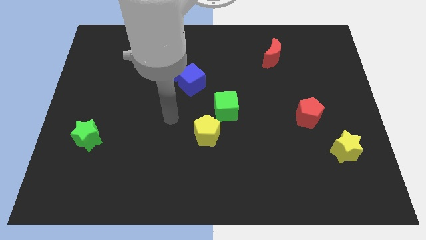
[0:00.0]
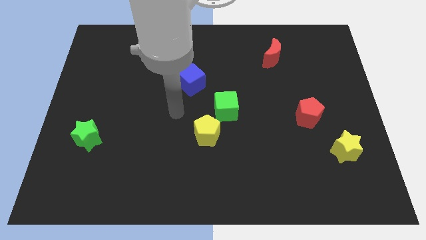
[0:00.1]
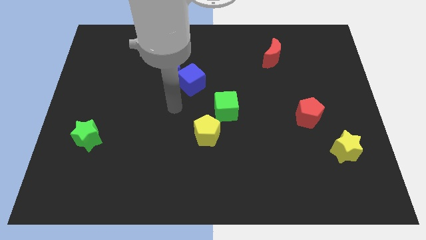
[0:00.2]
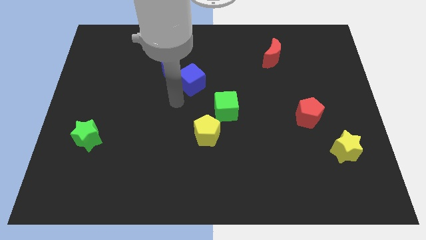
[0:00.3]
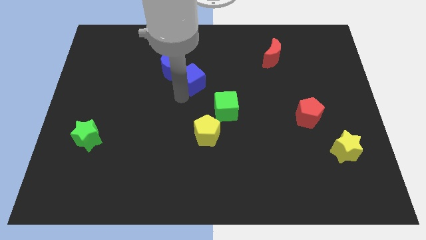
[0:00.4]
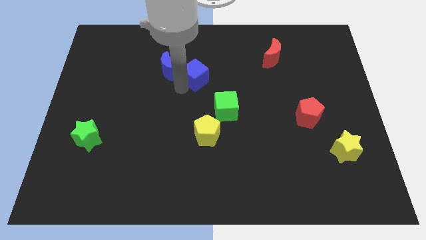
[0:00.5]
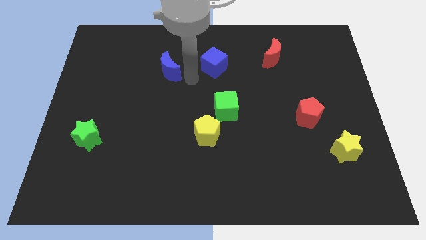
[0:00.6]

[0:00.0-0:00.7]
pull the blue moon apart from the blue cube

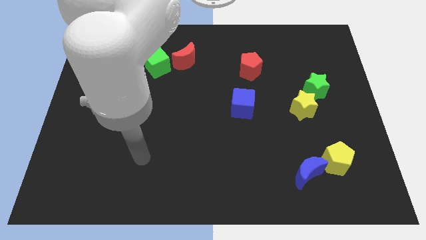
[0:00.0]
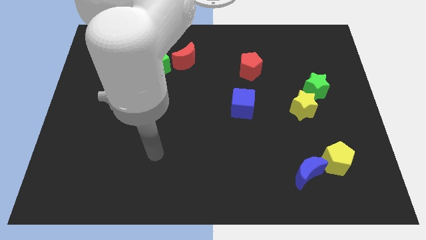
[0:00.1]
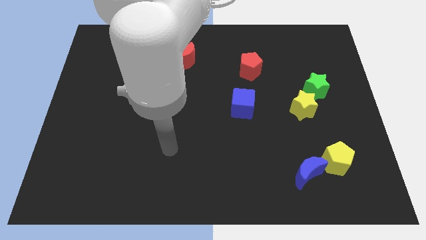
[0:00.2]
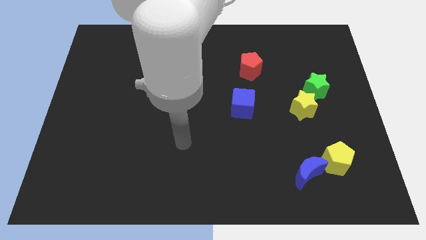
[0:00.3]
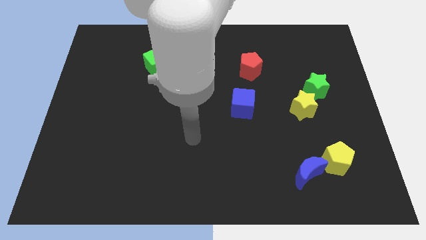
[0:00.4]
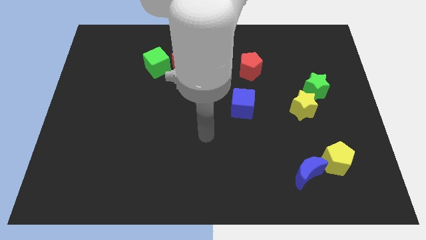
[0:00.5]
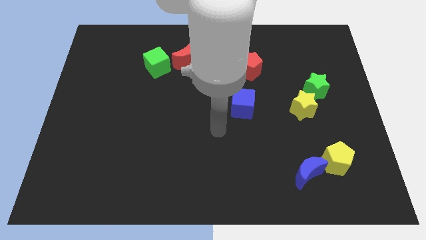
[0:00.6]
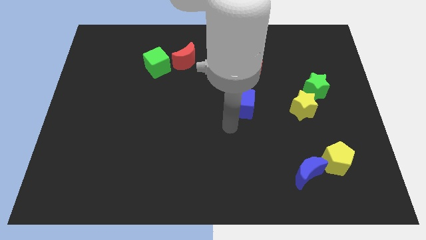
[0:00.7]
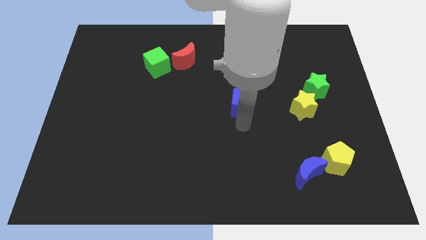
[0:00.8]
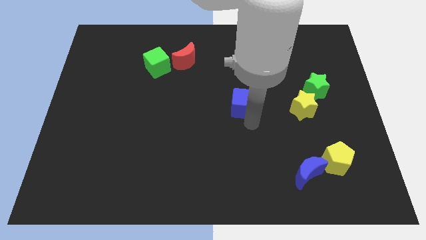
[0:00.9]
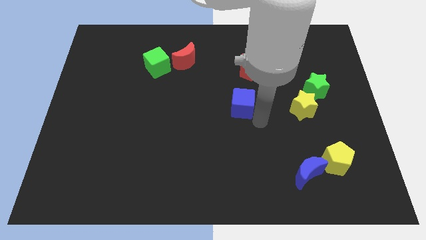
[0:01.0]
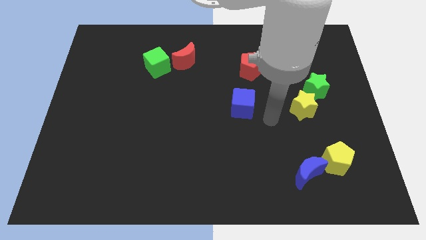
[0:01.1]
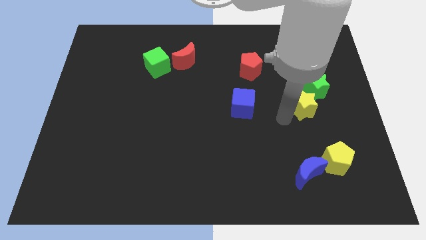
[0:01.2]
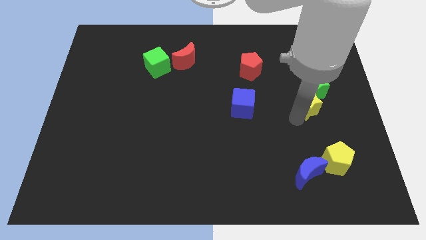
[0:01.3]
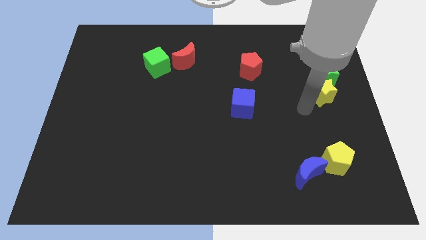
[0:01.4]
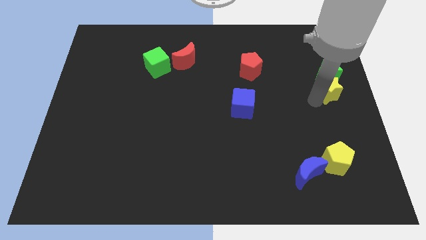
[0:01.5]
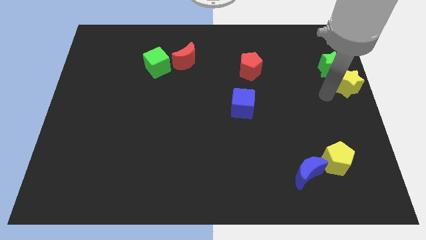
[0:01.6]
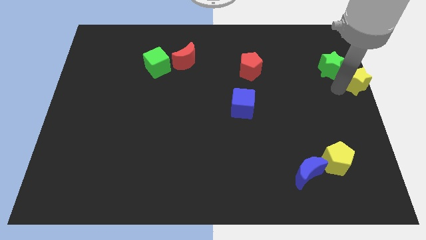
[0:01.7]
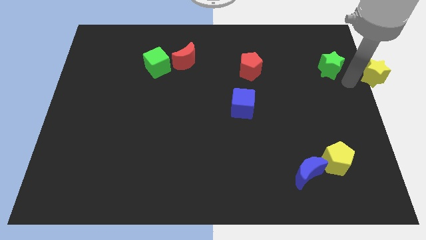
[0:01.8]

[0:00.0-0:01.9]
separate the green star from the yellow star

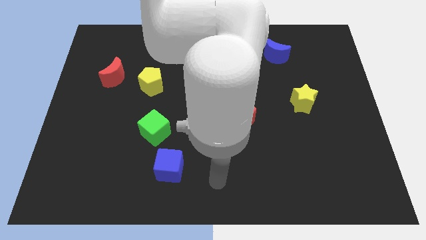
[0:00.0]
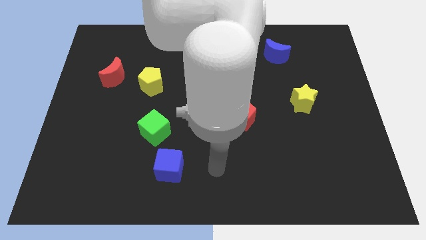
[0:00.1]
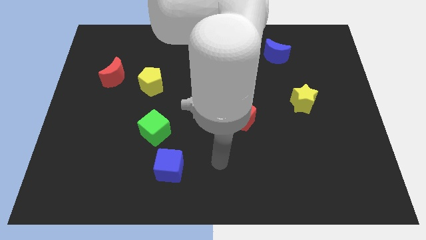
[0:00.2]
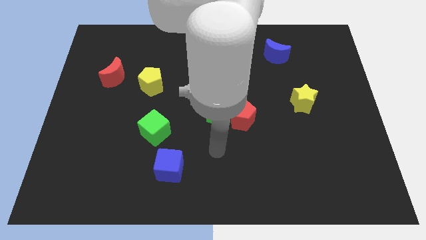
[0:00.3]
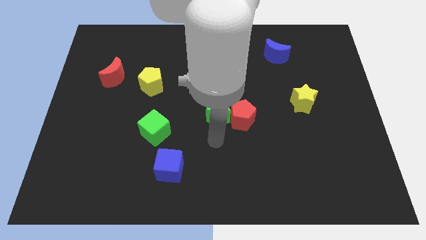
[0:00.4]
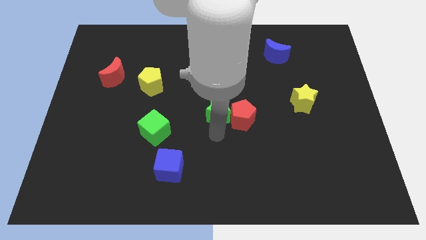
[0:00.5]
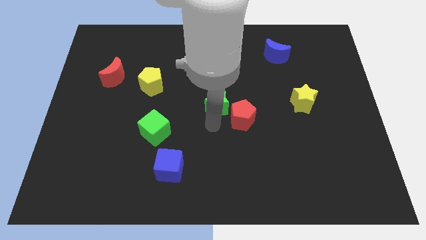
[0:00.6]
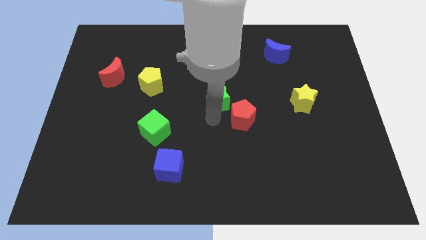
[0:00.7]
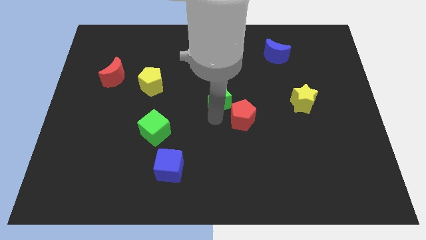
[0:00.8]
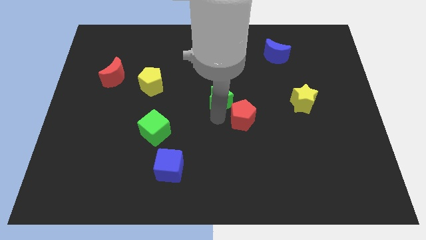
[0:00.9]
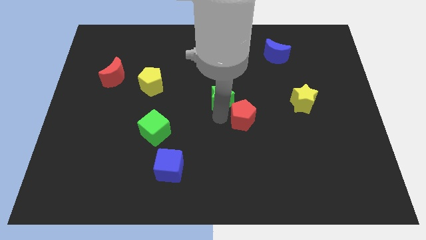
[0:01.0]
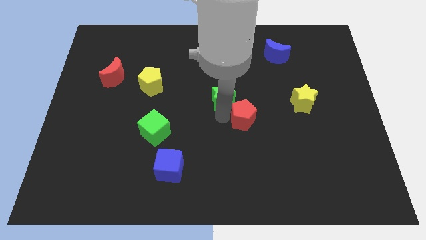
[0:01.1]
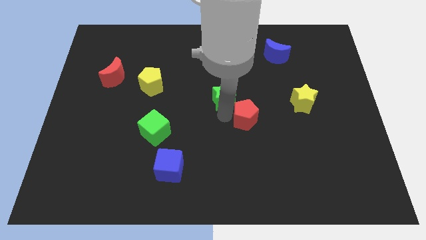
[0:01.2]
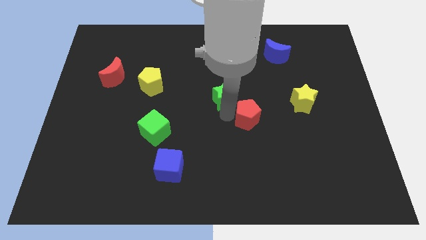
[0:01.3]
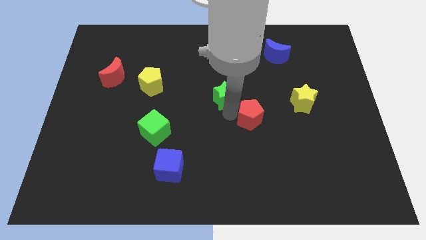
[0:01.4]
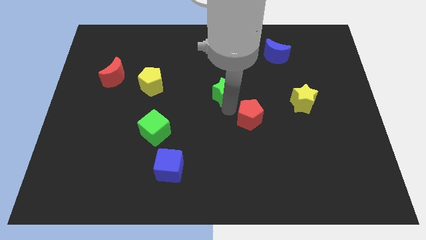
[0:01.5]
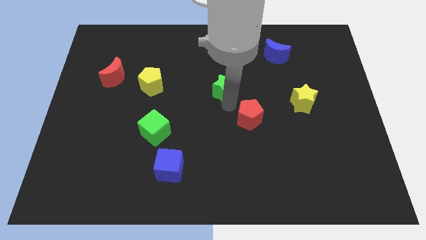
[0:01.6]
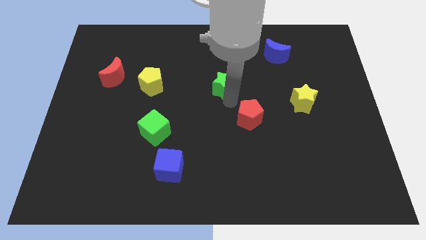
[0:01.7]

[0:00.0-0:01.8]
move the red pentagon away from the green star

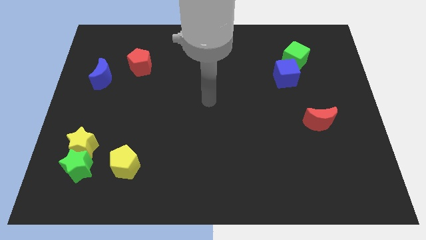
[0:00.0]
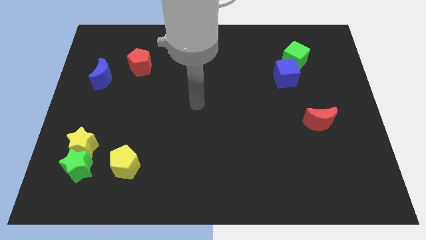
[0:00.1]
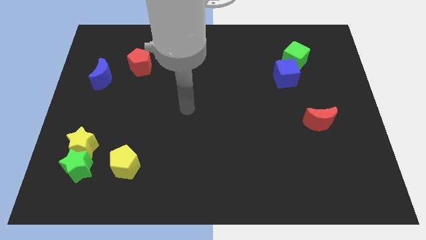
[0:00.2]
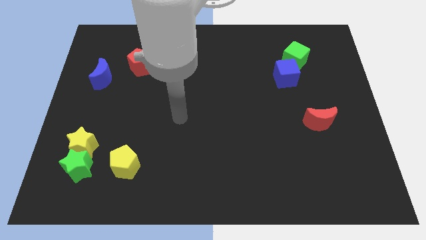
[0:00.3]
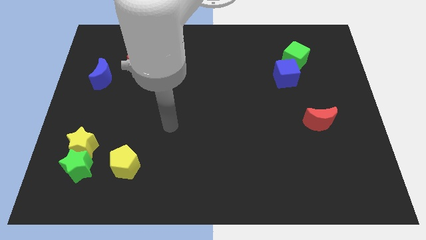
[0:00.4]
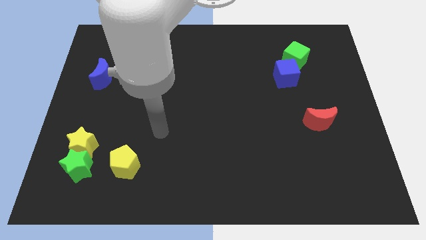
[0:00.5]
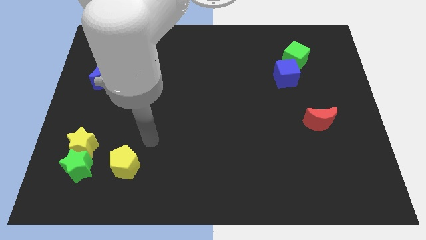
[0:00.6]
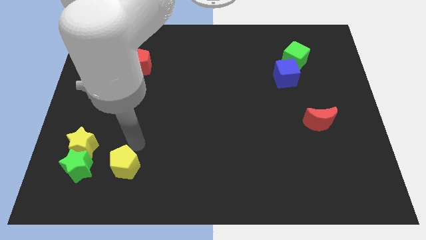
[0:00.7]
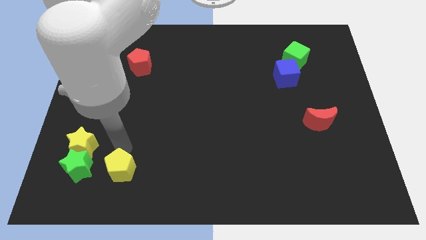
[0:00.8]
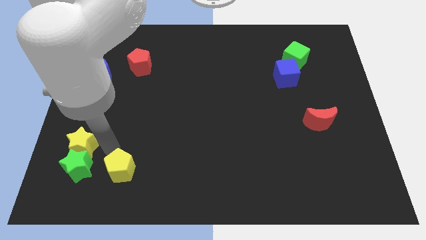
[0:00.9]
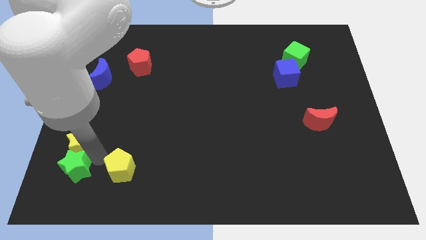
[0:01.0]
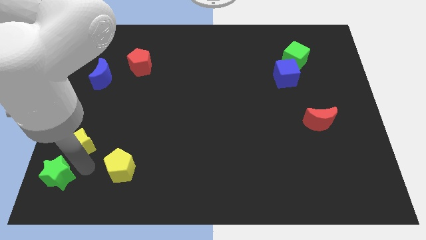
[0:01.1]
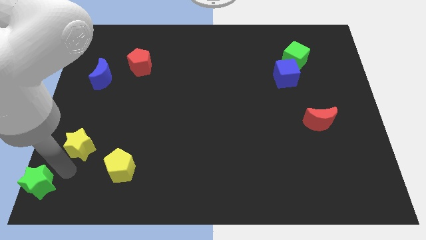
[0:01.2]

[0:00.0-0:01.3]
separate the yellow star from the green star

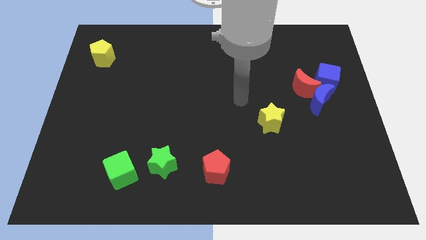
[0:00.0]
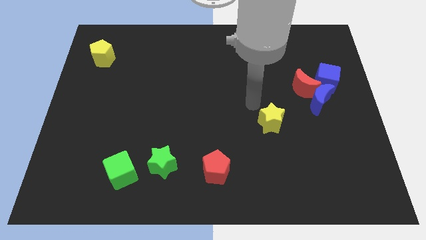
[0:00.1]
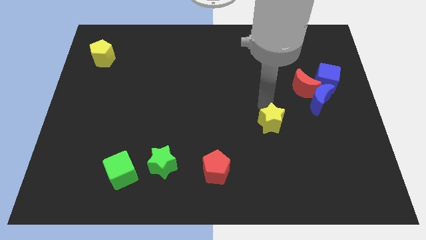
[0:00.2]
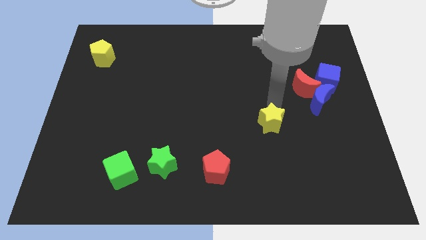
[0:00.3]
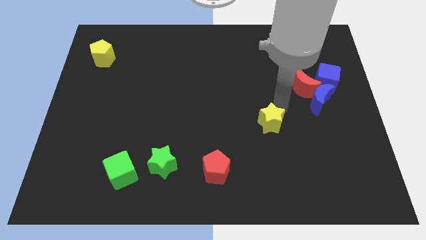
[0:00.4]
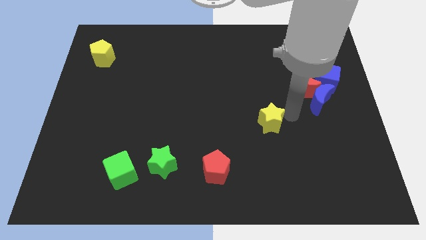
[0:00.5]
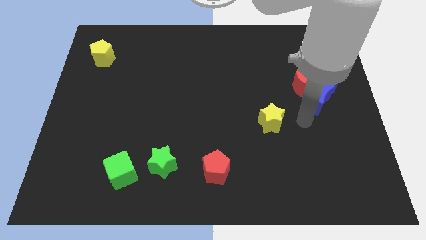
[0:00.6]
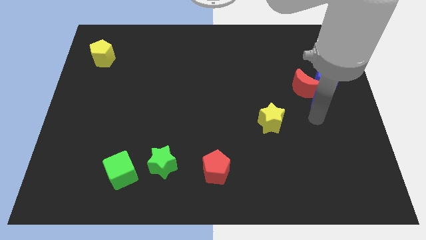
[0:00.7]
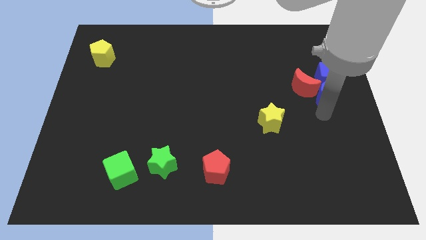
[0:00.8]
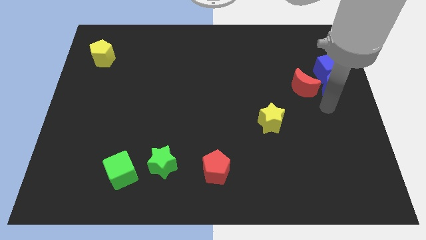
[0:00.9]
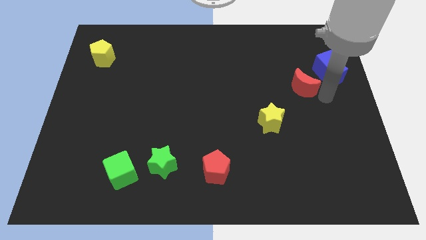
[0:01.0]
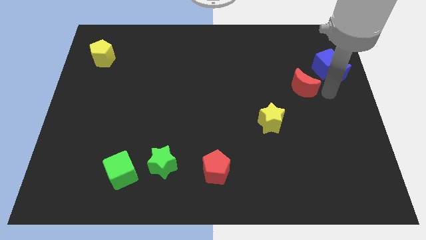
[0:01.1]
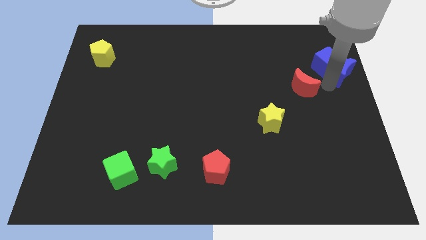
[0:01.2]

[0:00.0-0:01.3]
move the red moon away from the blue moon and blue cube

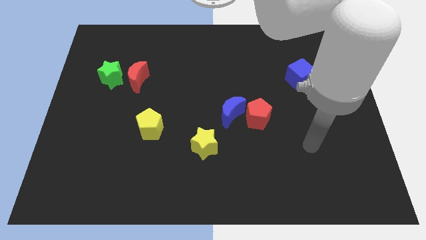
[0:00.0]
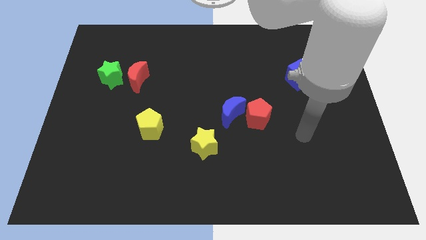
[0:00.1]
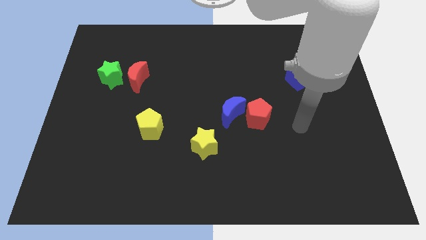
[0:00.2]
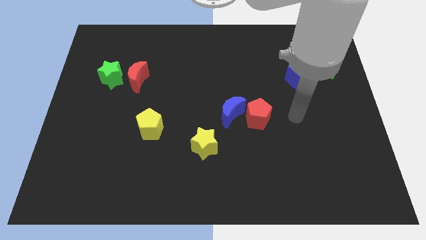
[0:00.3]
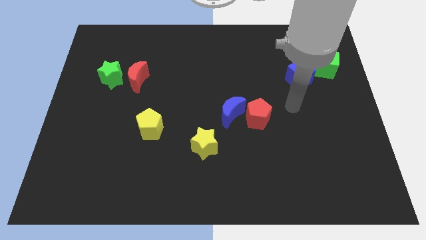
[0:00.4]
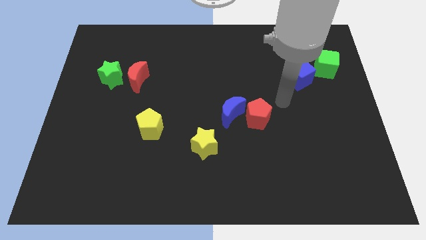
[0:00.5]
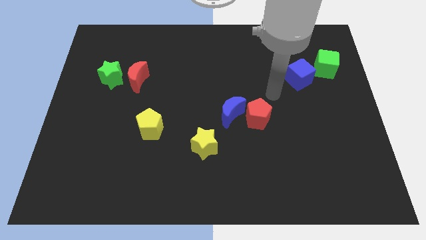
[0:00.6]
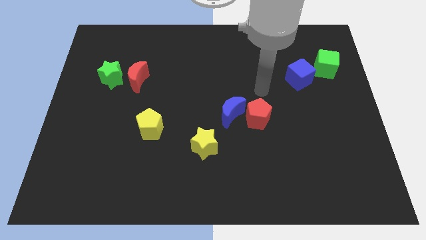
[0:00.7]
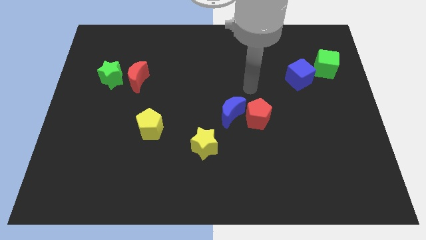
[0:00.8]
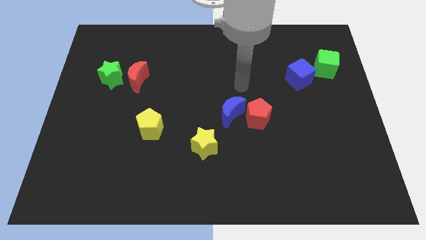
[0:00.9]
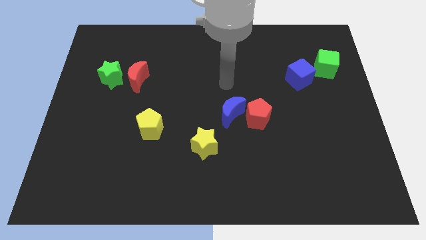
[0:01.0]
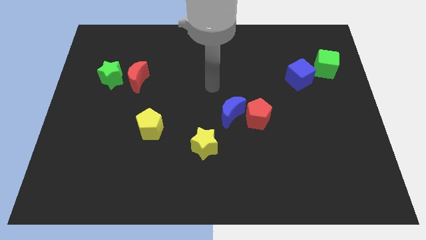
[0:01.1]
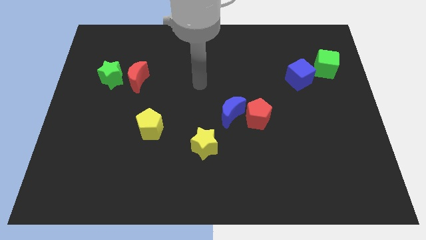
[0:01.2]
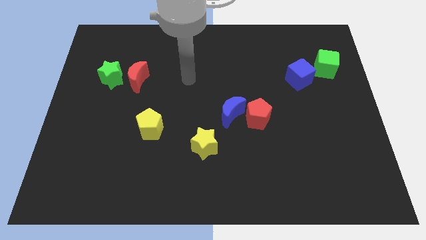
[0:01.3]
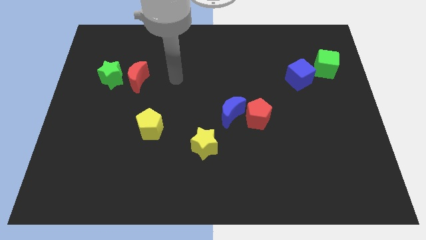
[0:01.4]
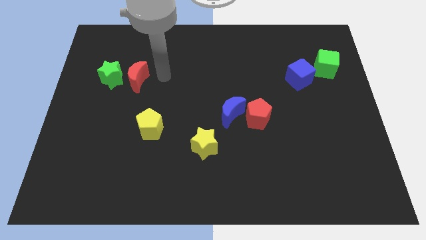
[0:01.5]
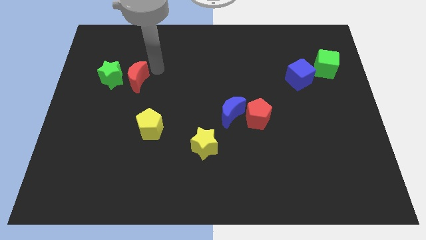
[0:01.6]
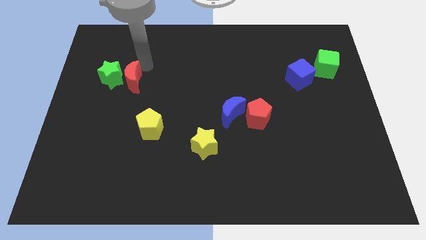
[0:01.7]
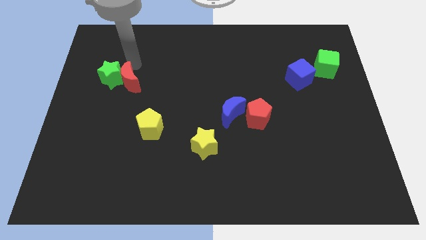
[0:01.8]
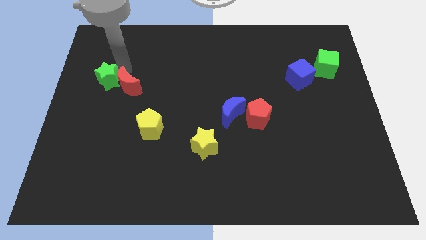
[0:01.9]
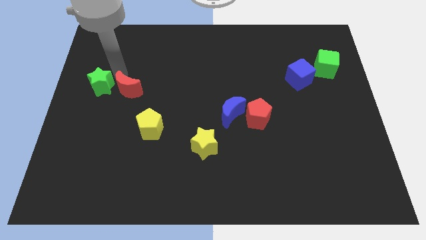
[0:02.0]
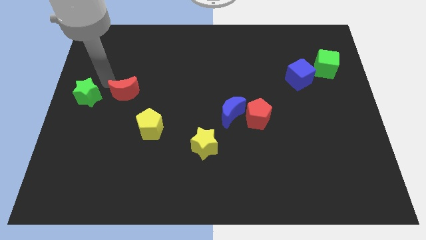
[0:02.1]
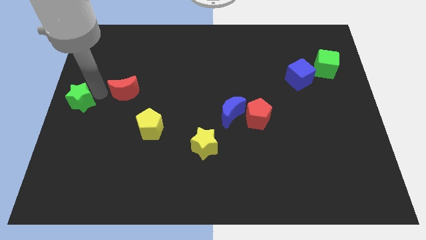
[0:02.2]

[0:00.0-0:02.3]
move the red moon away from the green star
